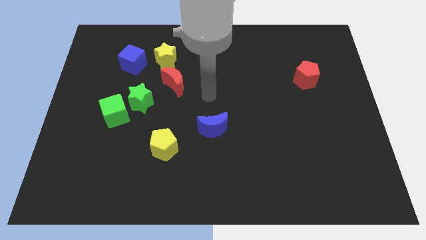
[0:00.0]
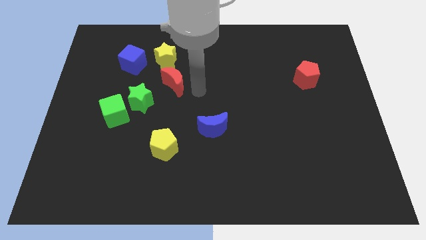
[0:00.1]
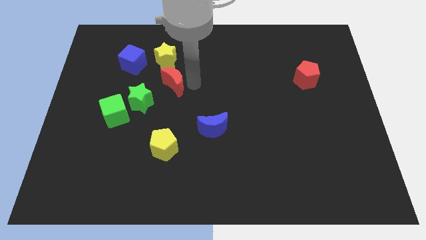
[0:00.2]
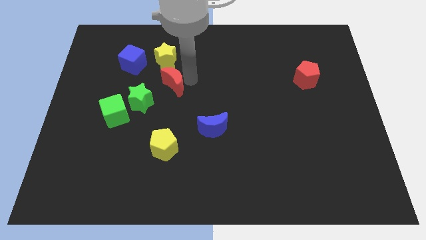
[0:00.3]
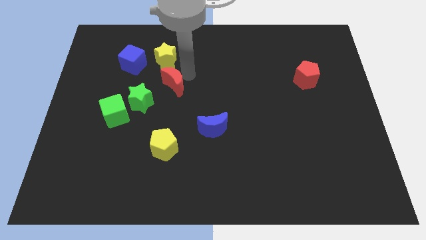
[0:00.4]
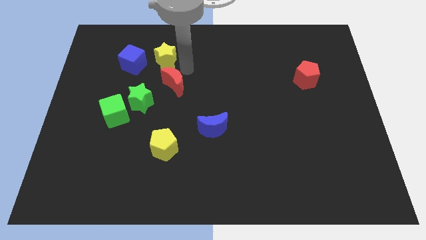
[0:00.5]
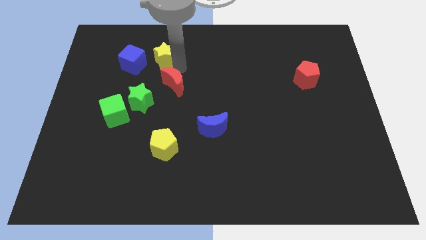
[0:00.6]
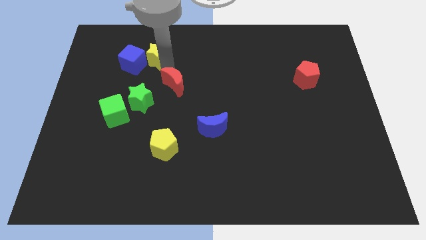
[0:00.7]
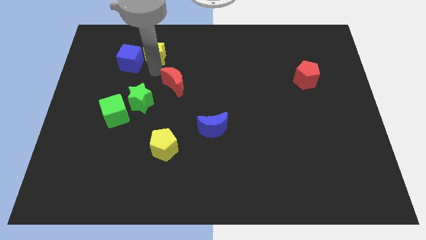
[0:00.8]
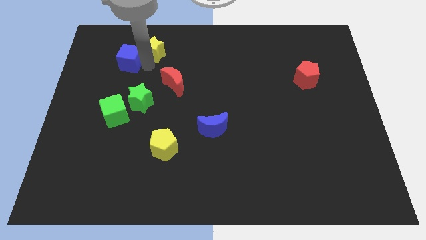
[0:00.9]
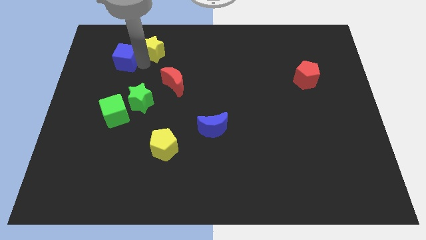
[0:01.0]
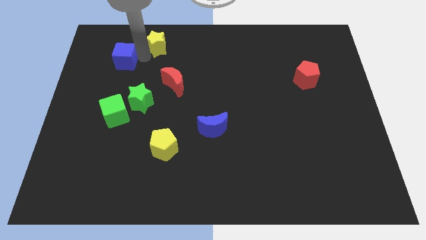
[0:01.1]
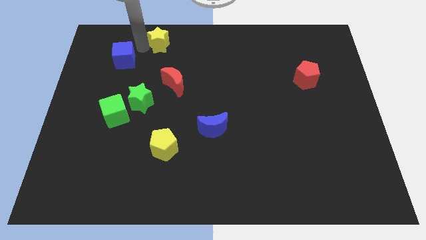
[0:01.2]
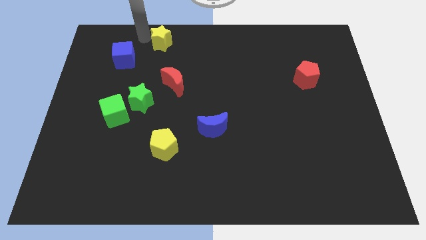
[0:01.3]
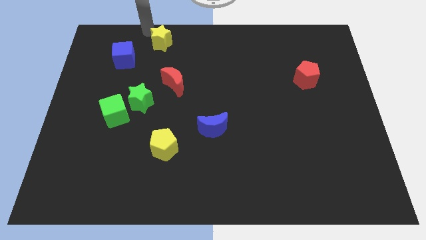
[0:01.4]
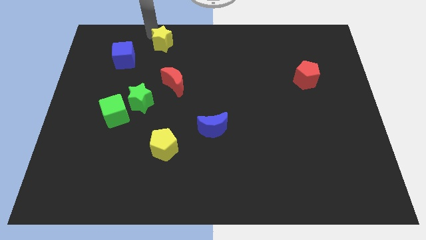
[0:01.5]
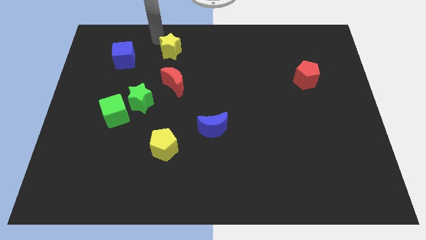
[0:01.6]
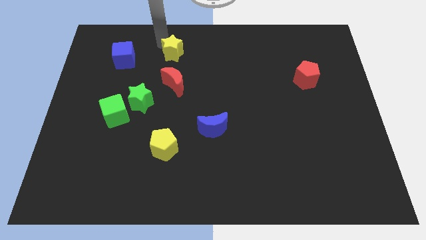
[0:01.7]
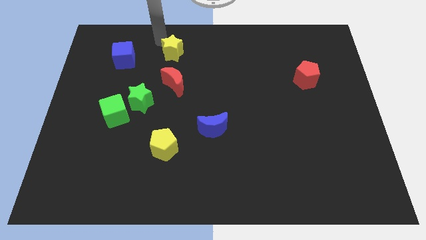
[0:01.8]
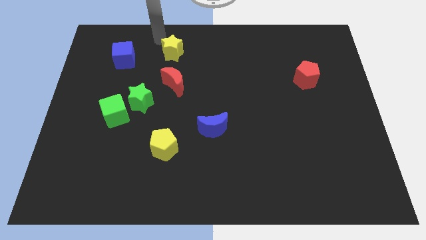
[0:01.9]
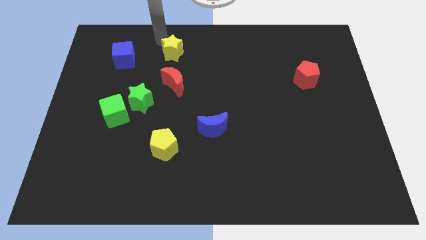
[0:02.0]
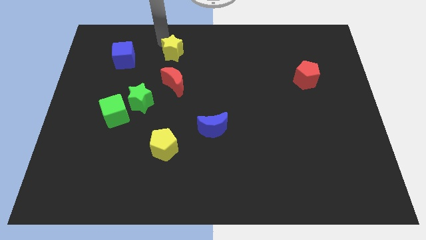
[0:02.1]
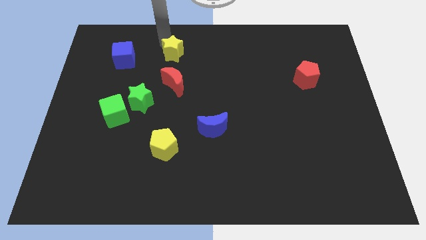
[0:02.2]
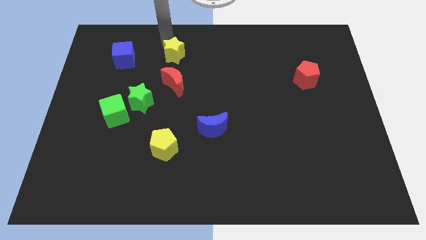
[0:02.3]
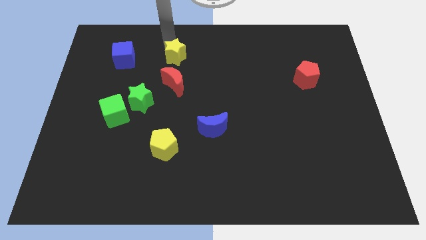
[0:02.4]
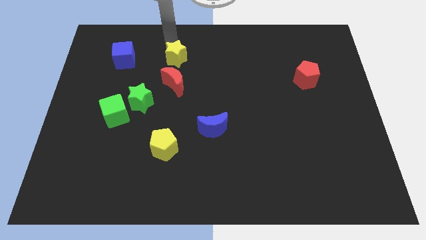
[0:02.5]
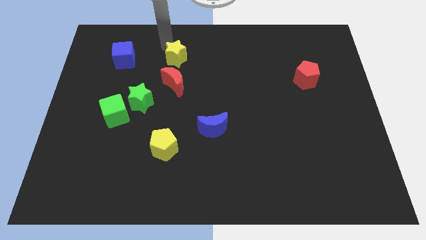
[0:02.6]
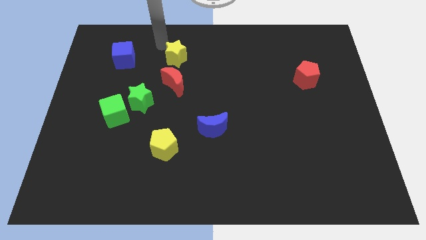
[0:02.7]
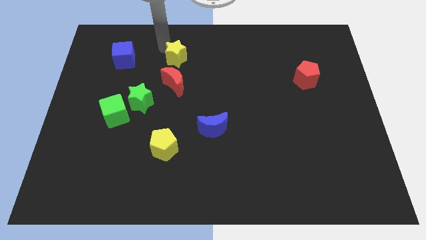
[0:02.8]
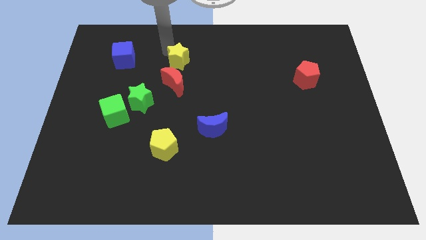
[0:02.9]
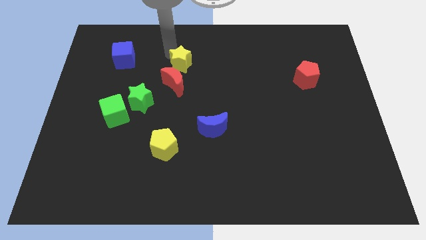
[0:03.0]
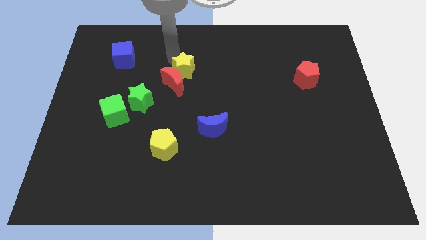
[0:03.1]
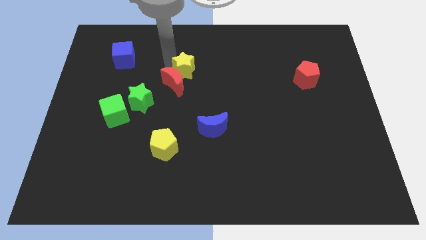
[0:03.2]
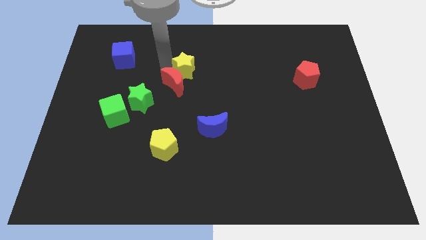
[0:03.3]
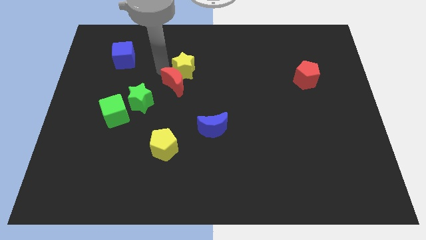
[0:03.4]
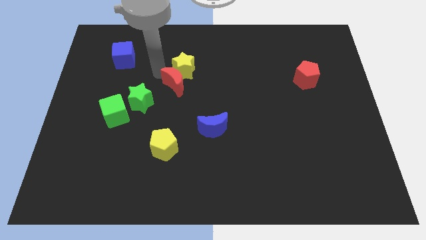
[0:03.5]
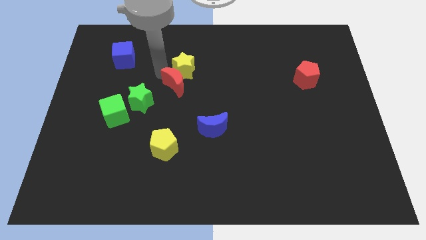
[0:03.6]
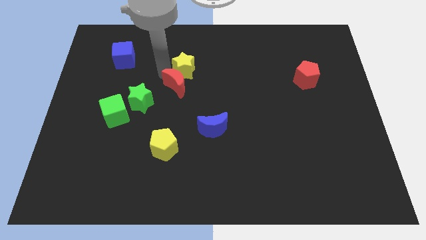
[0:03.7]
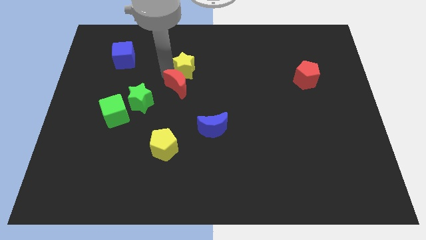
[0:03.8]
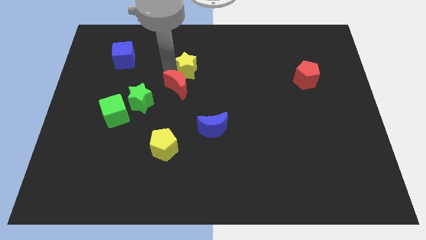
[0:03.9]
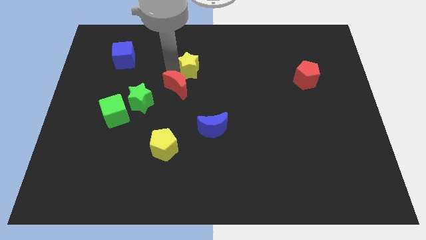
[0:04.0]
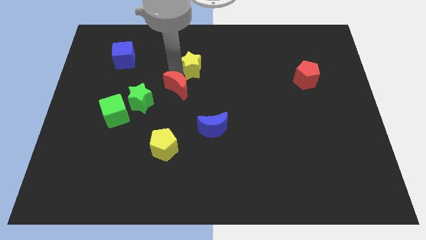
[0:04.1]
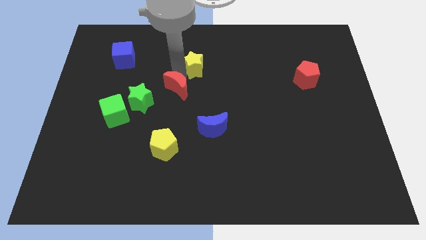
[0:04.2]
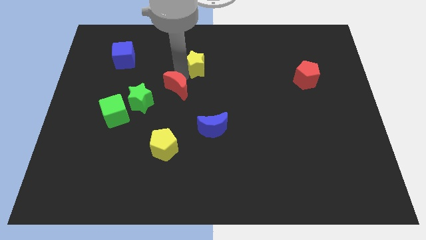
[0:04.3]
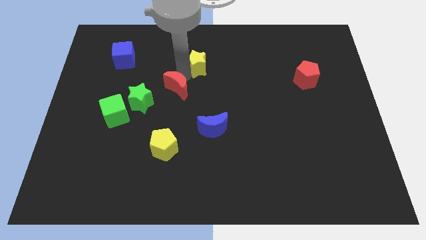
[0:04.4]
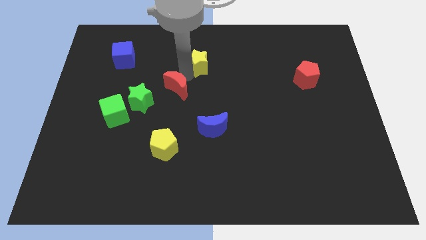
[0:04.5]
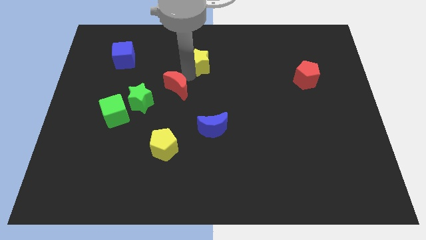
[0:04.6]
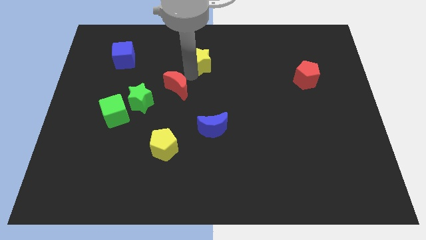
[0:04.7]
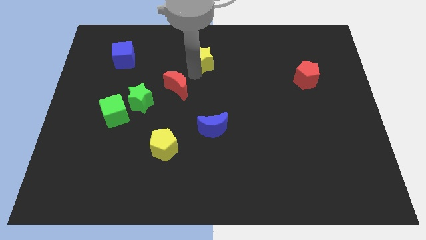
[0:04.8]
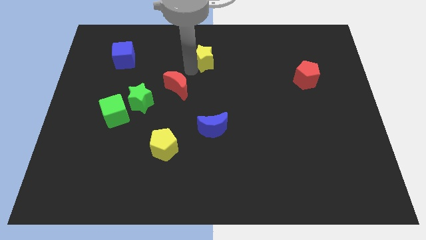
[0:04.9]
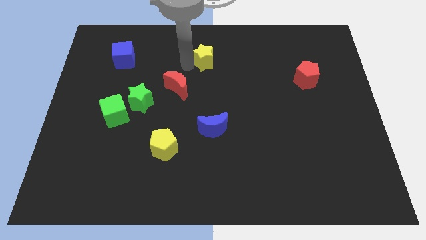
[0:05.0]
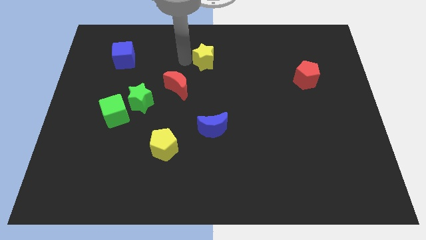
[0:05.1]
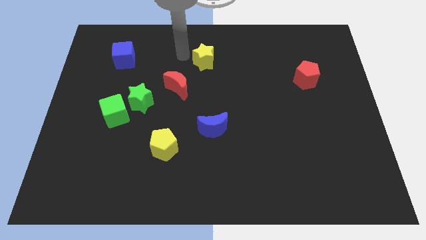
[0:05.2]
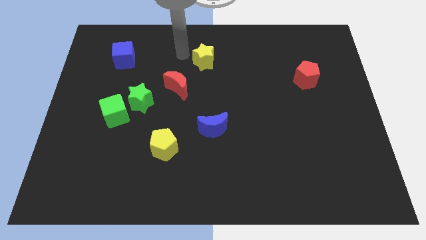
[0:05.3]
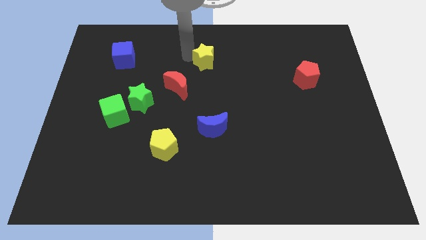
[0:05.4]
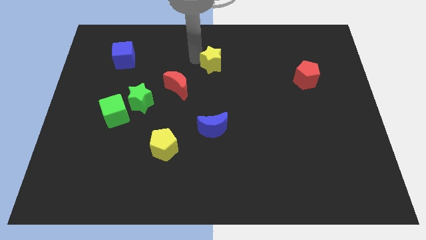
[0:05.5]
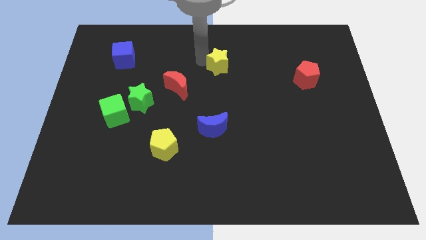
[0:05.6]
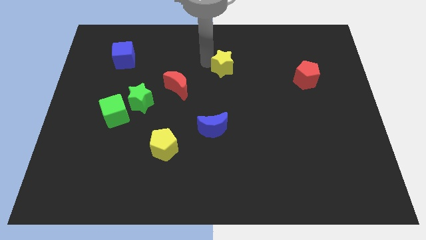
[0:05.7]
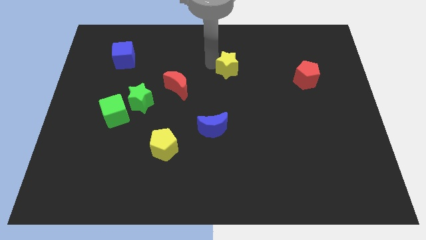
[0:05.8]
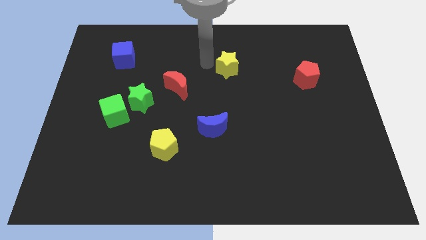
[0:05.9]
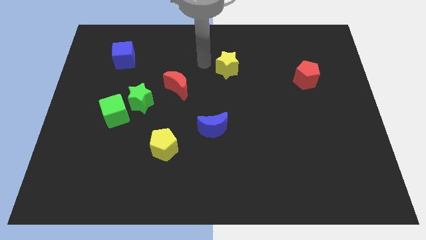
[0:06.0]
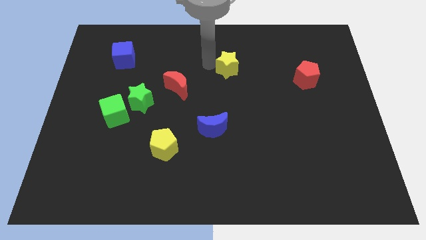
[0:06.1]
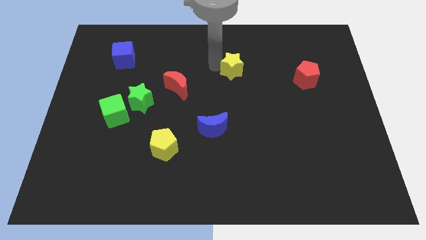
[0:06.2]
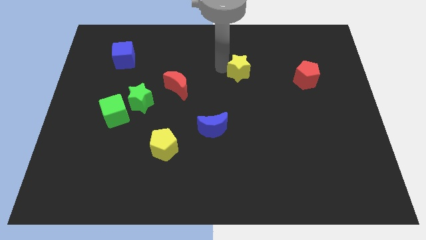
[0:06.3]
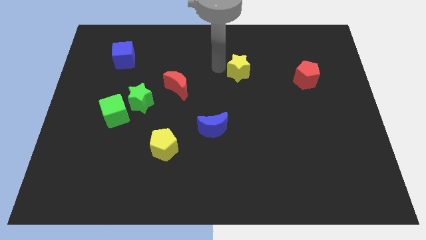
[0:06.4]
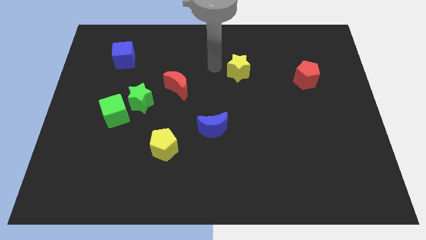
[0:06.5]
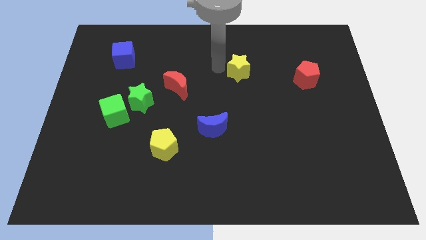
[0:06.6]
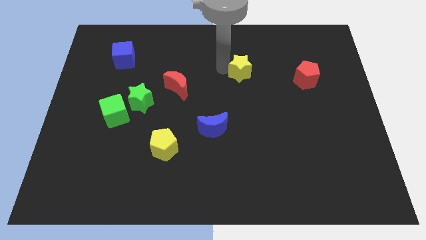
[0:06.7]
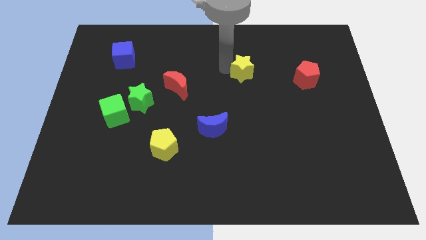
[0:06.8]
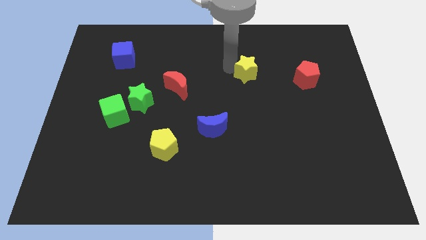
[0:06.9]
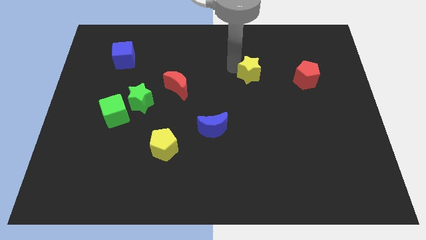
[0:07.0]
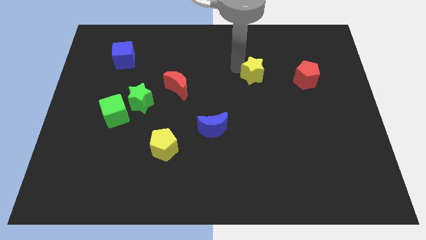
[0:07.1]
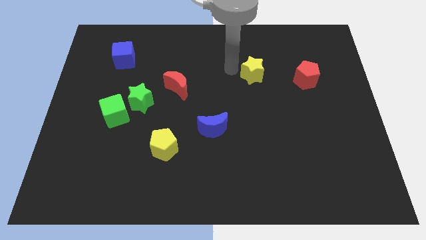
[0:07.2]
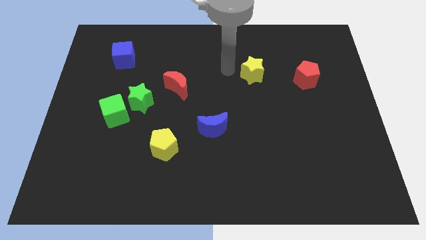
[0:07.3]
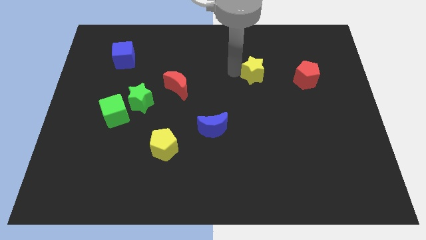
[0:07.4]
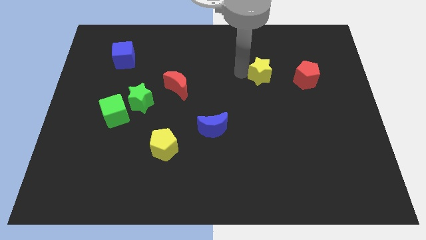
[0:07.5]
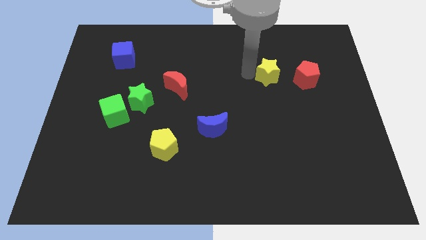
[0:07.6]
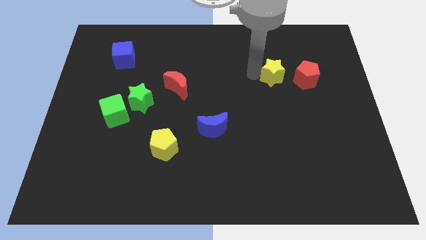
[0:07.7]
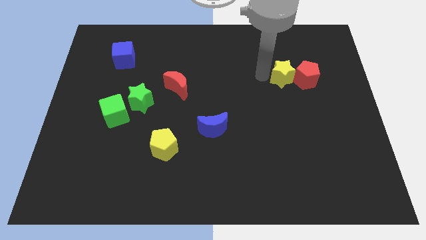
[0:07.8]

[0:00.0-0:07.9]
put the yellow star next to the red pentagon

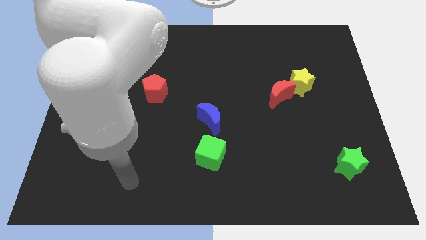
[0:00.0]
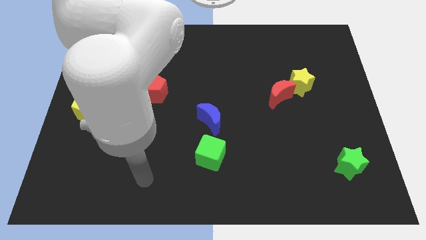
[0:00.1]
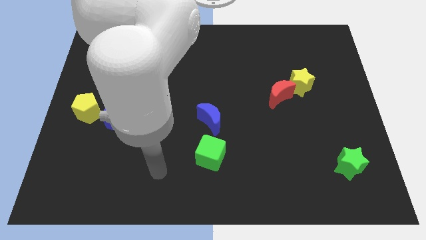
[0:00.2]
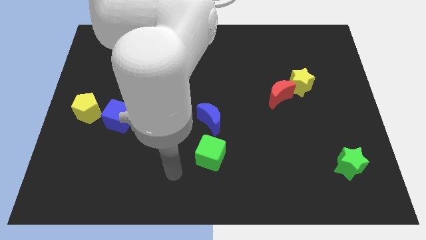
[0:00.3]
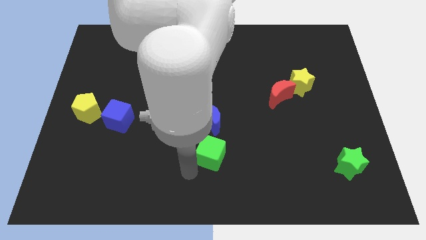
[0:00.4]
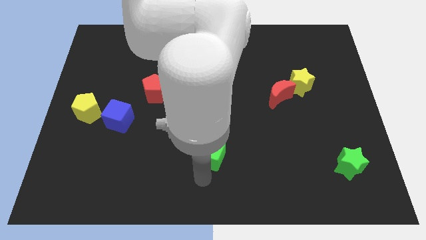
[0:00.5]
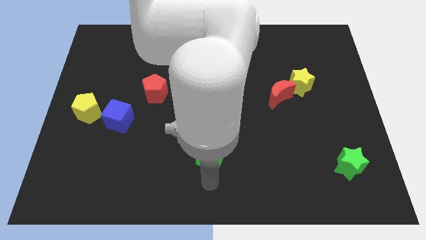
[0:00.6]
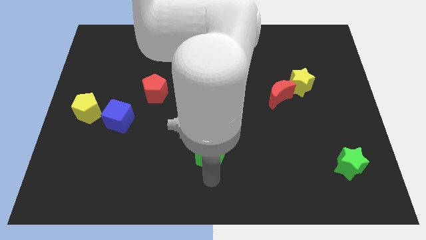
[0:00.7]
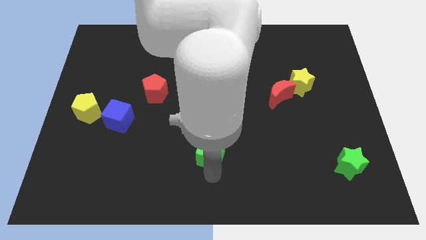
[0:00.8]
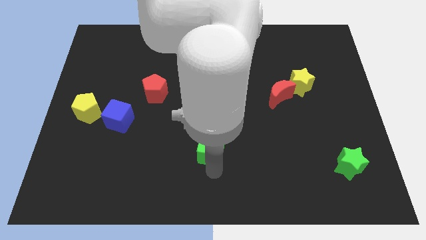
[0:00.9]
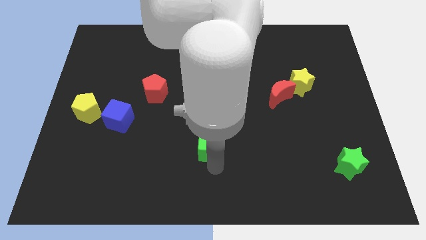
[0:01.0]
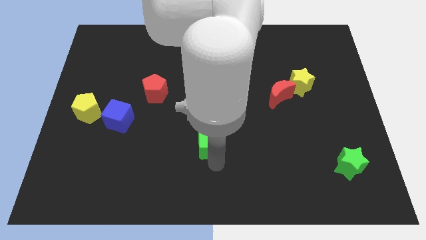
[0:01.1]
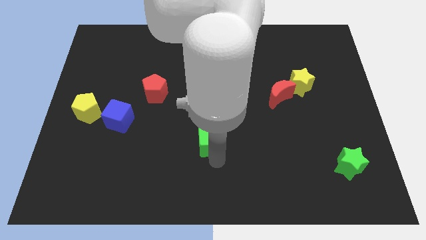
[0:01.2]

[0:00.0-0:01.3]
push the green cube close to the blue moon
